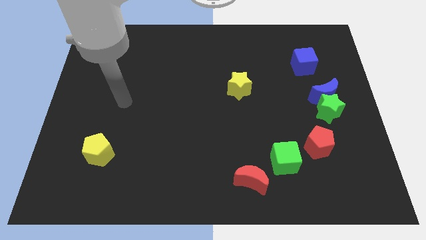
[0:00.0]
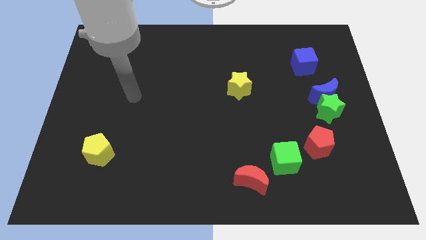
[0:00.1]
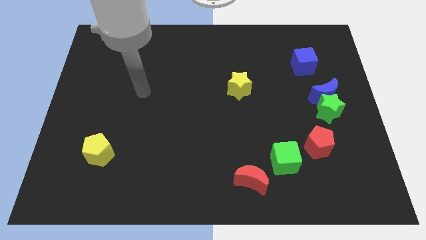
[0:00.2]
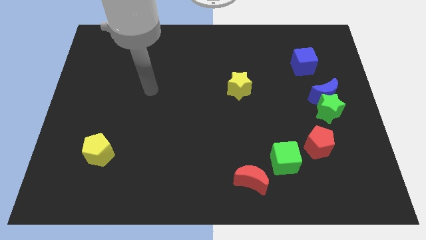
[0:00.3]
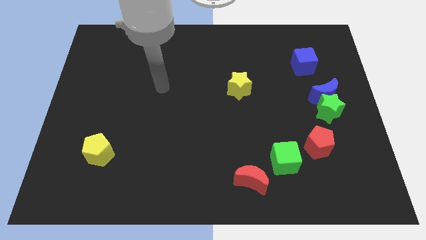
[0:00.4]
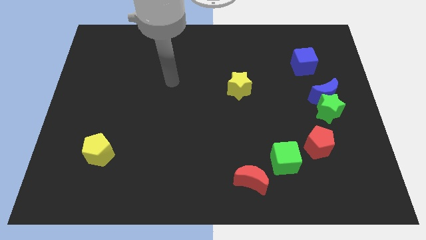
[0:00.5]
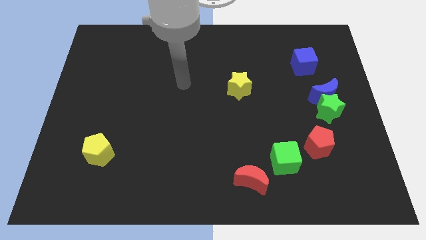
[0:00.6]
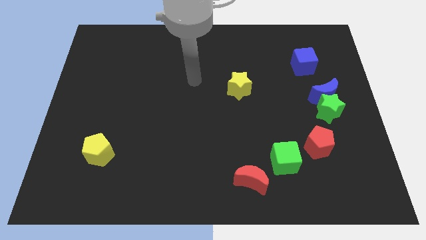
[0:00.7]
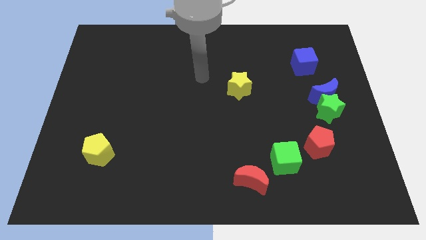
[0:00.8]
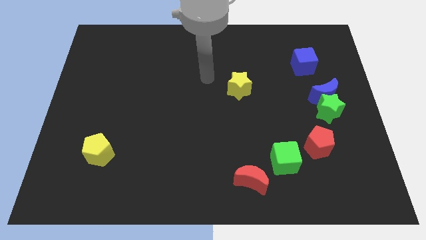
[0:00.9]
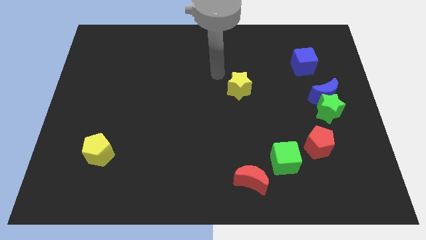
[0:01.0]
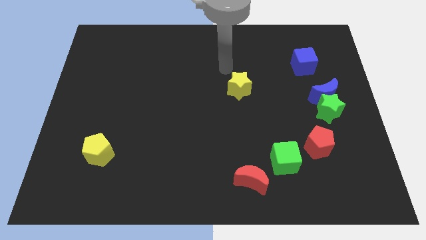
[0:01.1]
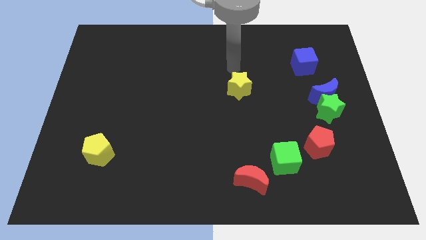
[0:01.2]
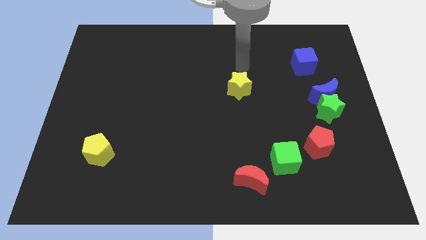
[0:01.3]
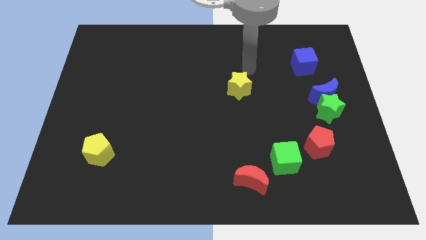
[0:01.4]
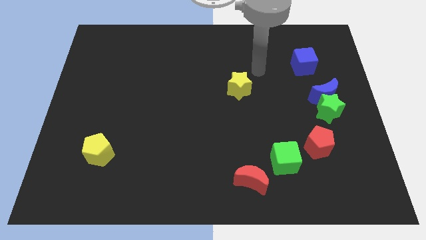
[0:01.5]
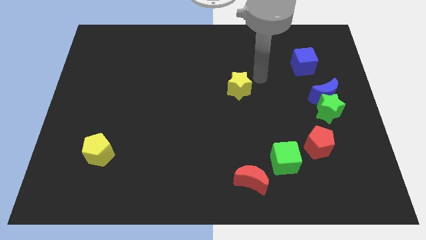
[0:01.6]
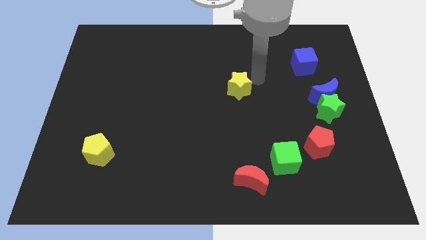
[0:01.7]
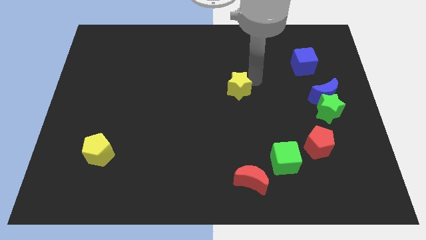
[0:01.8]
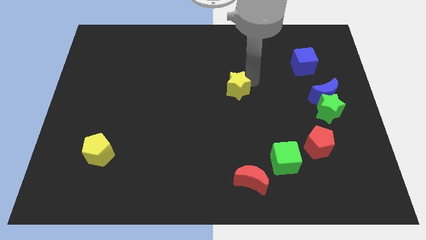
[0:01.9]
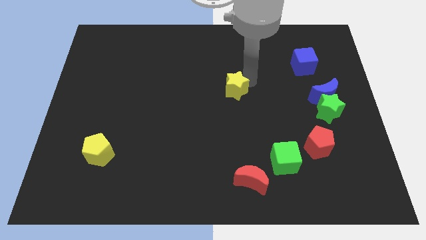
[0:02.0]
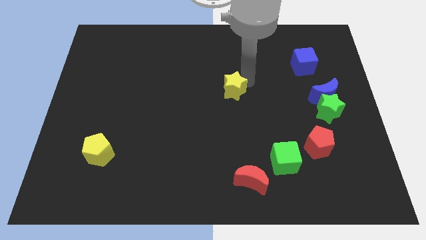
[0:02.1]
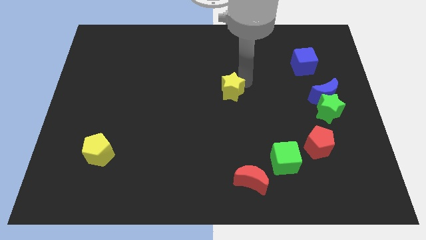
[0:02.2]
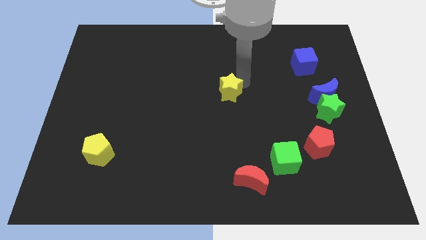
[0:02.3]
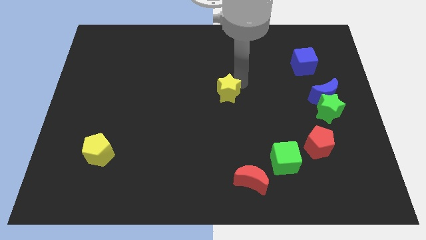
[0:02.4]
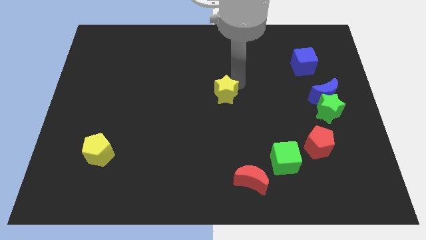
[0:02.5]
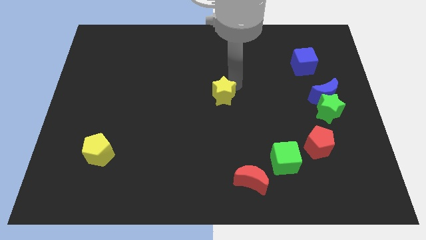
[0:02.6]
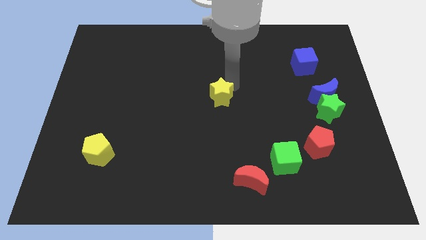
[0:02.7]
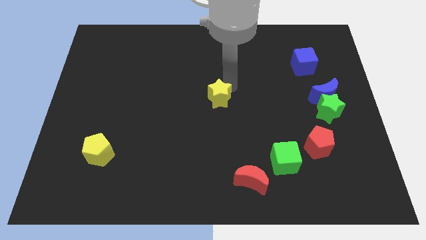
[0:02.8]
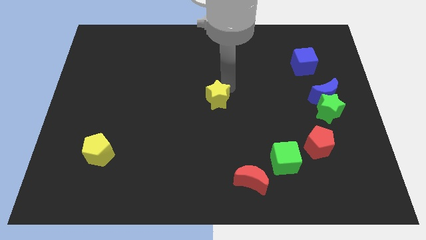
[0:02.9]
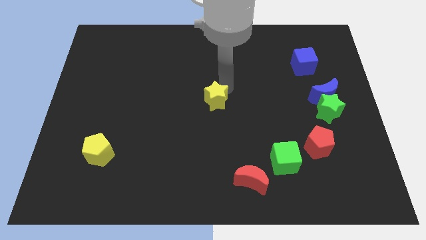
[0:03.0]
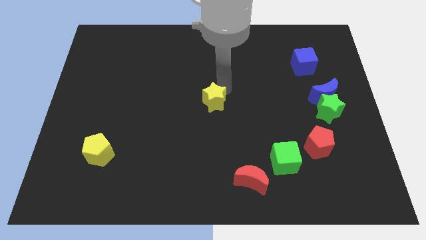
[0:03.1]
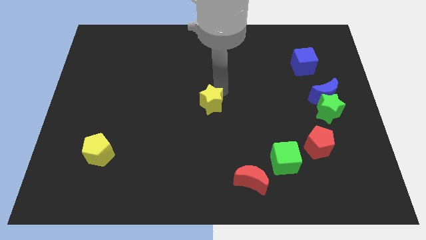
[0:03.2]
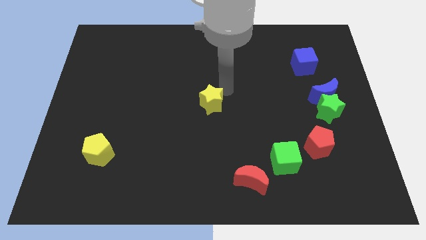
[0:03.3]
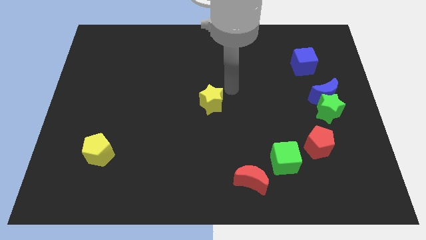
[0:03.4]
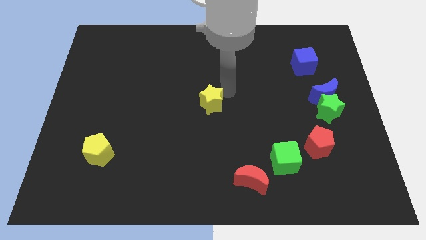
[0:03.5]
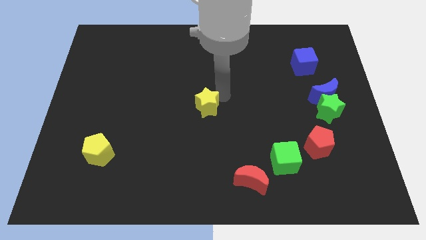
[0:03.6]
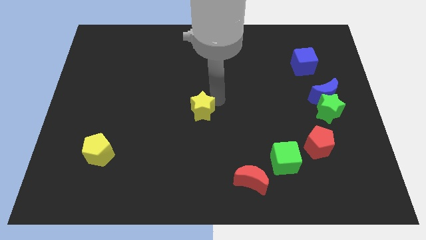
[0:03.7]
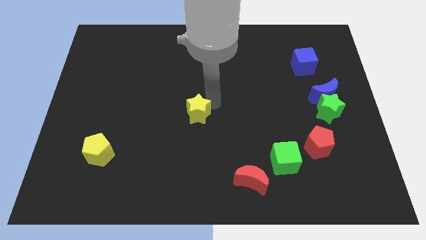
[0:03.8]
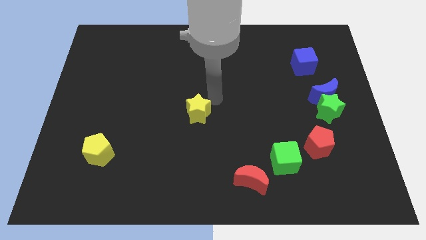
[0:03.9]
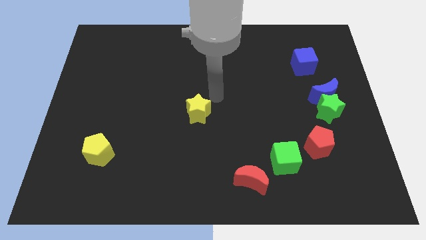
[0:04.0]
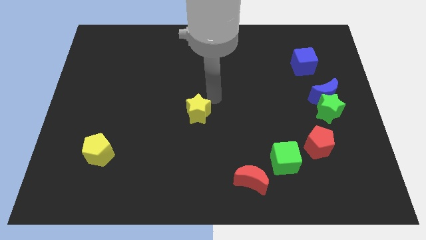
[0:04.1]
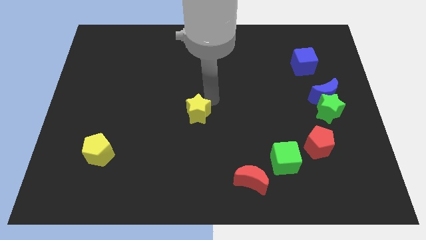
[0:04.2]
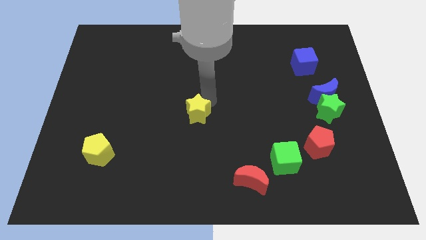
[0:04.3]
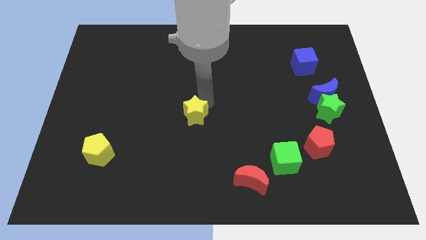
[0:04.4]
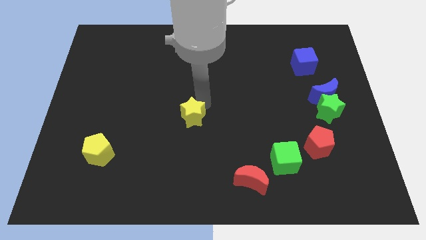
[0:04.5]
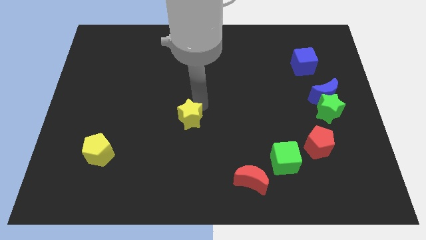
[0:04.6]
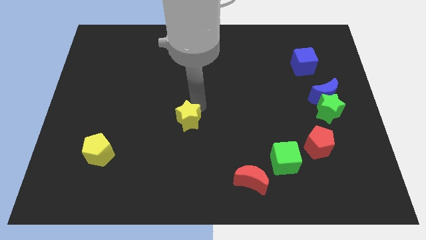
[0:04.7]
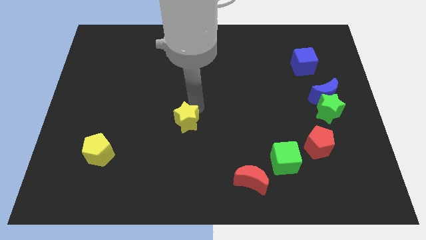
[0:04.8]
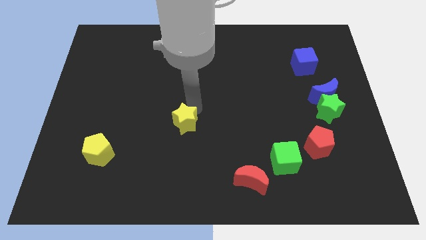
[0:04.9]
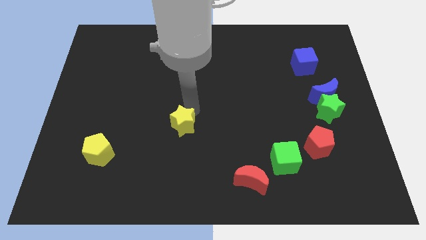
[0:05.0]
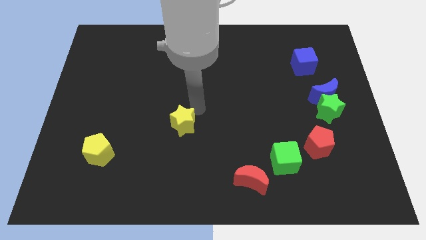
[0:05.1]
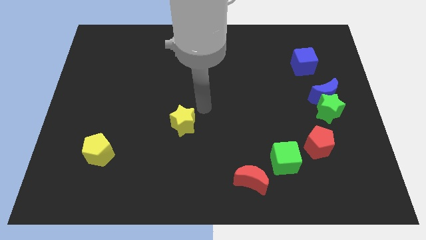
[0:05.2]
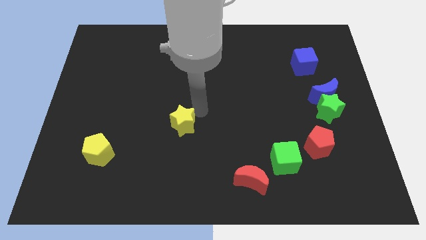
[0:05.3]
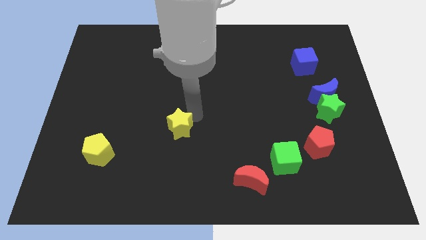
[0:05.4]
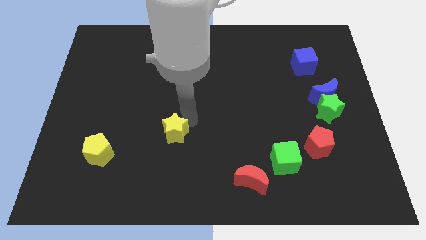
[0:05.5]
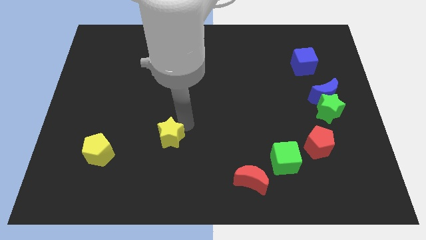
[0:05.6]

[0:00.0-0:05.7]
move the yellow star diagonally downwards and left

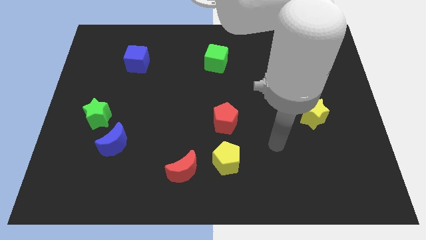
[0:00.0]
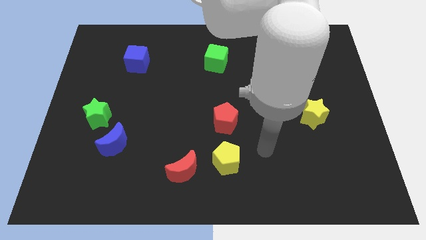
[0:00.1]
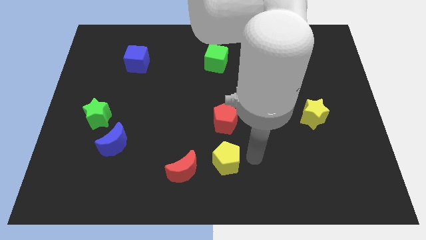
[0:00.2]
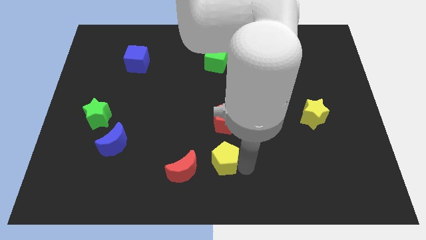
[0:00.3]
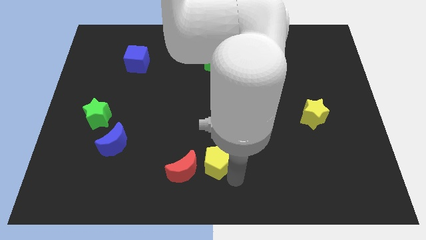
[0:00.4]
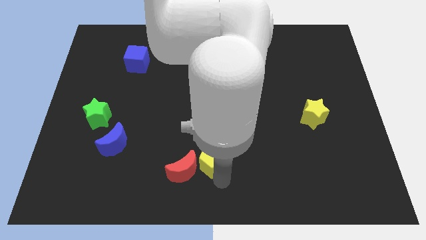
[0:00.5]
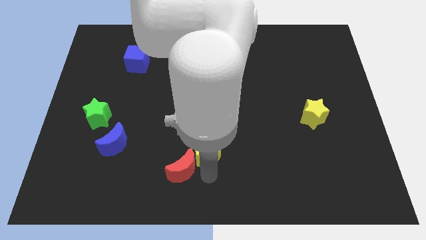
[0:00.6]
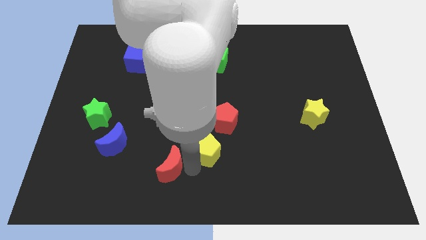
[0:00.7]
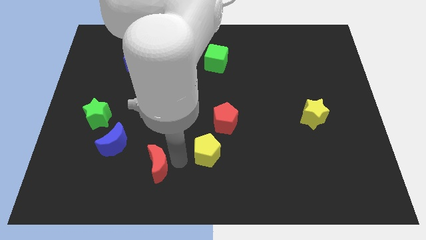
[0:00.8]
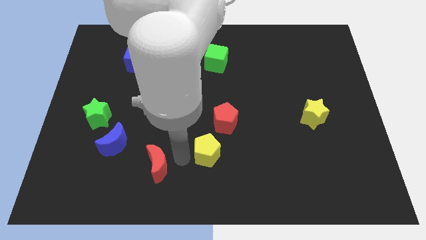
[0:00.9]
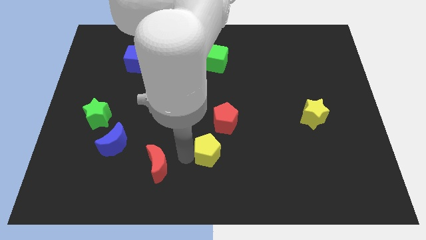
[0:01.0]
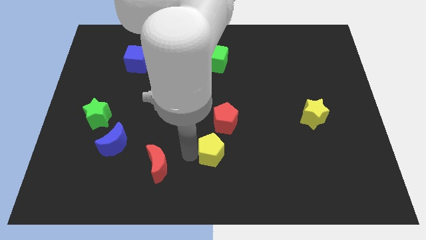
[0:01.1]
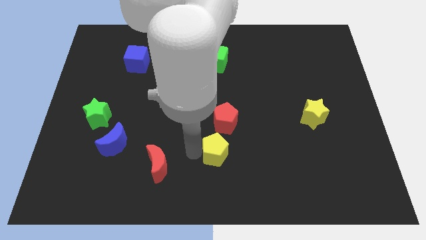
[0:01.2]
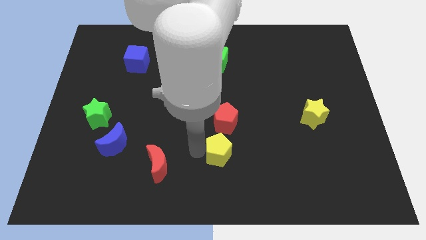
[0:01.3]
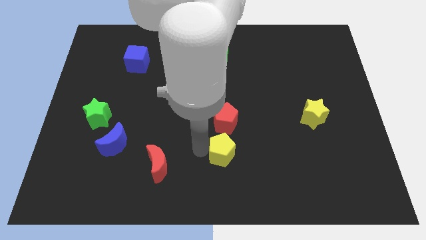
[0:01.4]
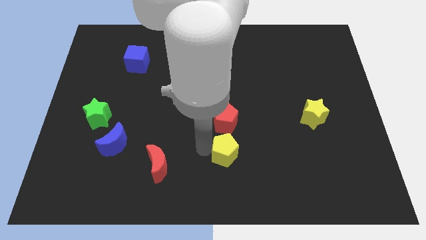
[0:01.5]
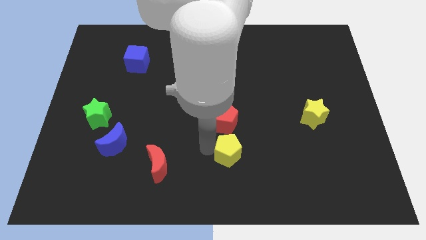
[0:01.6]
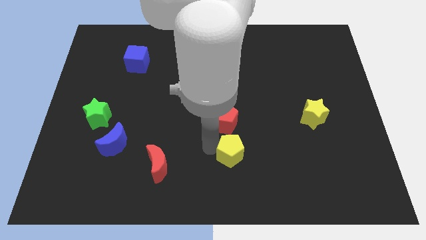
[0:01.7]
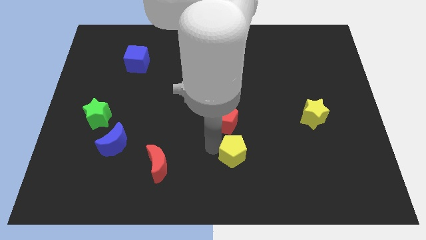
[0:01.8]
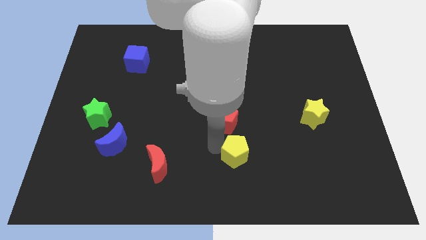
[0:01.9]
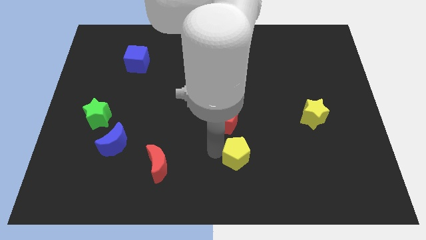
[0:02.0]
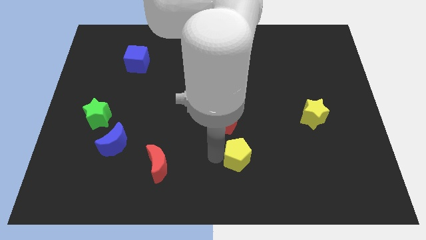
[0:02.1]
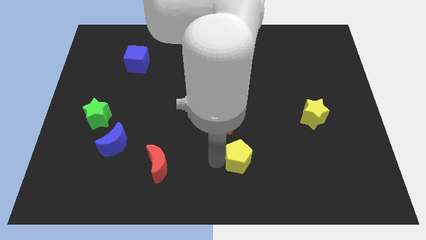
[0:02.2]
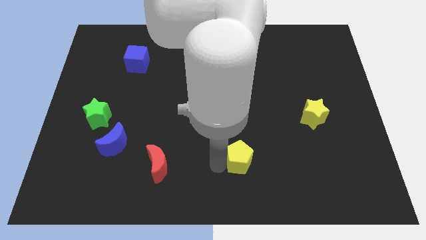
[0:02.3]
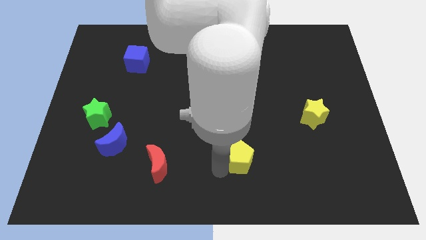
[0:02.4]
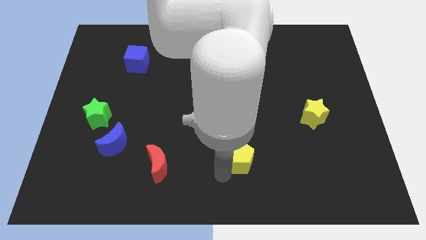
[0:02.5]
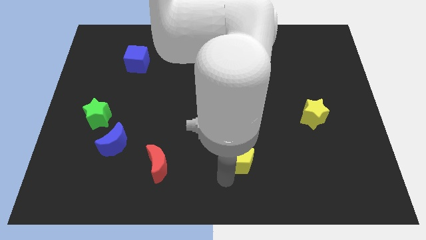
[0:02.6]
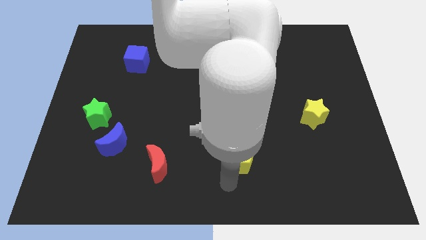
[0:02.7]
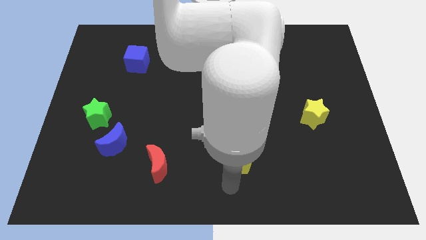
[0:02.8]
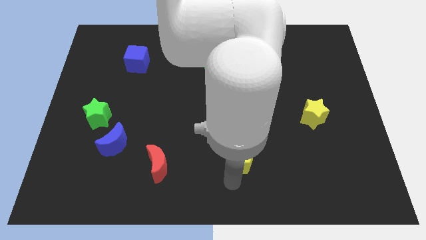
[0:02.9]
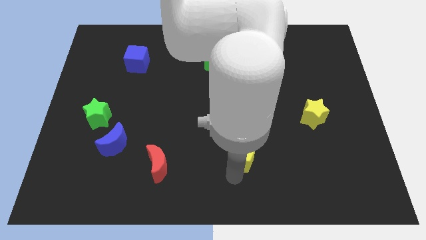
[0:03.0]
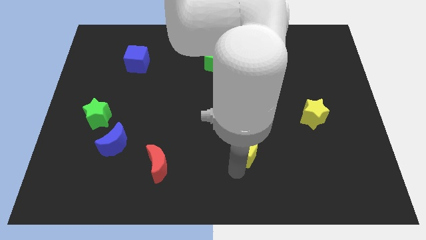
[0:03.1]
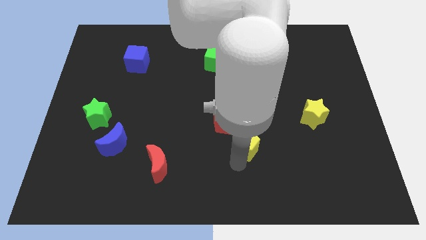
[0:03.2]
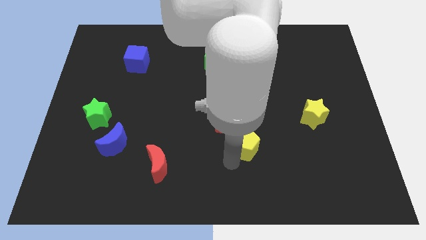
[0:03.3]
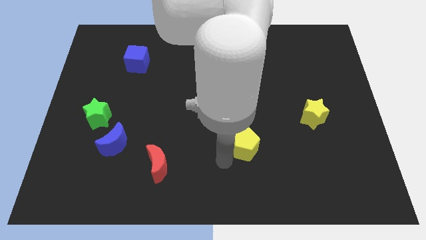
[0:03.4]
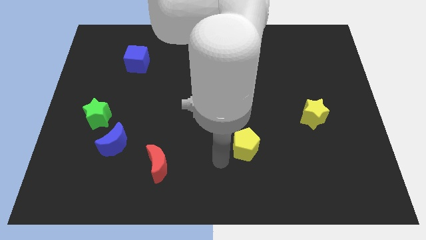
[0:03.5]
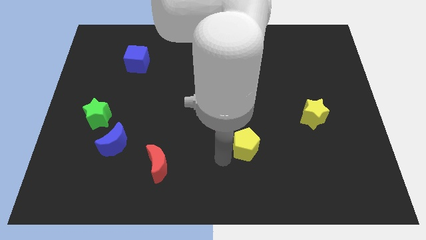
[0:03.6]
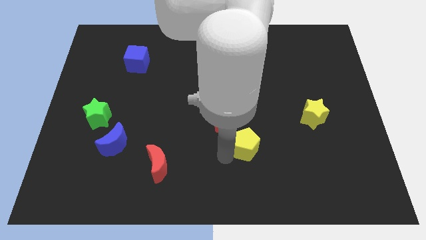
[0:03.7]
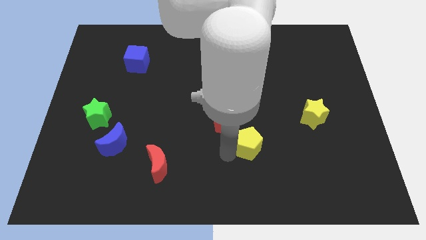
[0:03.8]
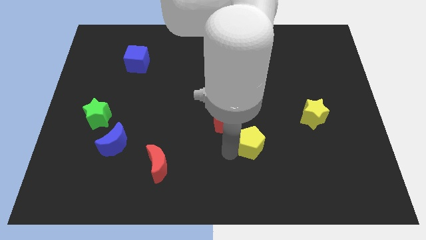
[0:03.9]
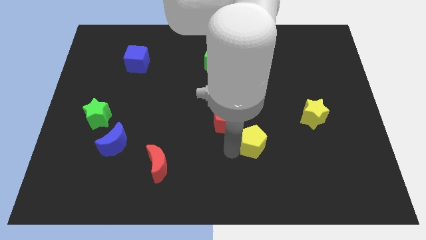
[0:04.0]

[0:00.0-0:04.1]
slightly slide the yellow pentagon upwards and to the right
